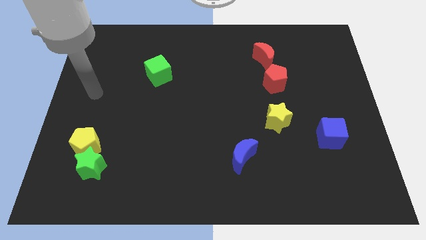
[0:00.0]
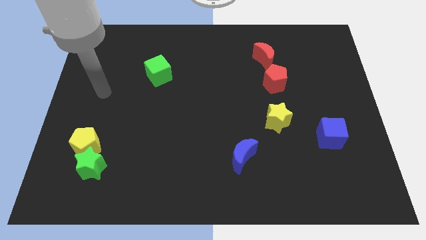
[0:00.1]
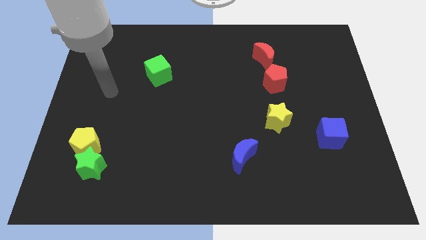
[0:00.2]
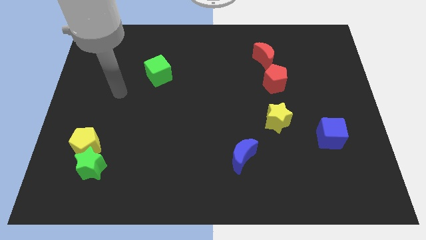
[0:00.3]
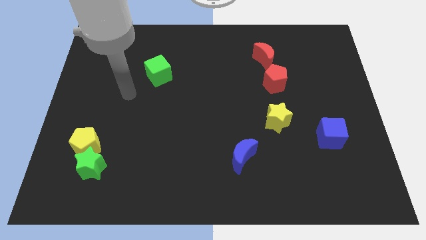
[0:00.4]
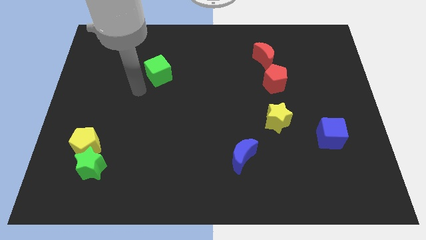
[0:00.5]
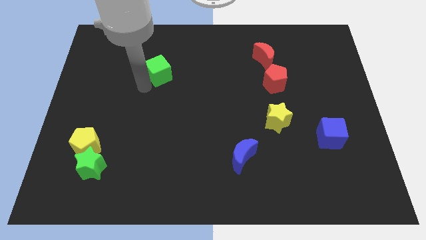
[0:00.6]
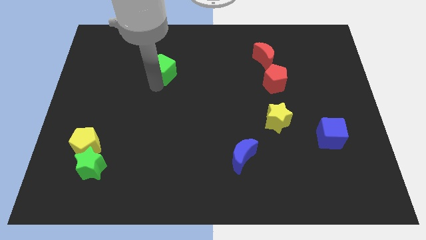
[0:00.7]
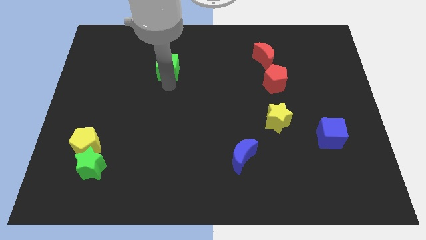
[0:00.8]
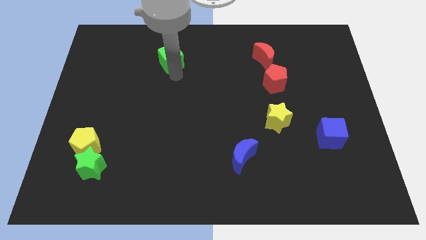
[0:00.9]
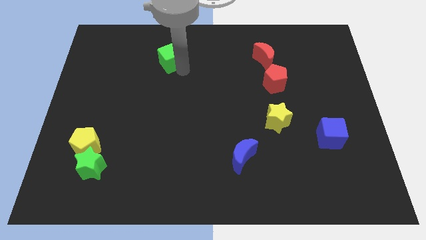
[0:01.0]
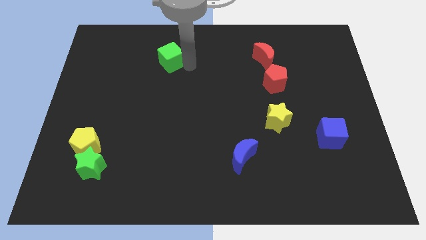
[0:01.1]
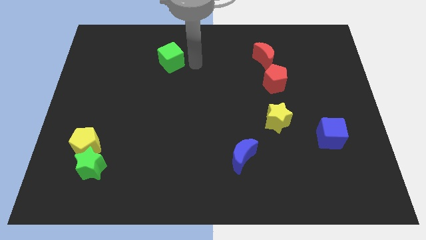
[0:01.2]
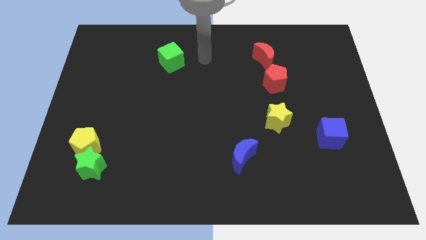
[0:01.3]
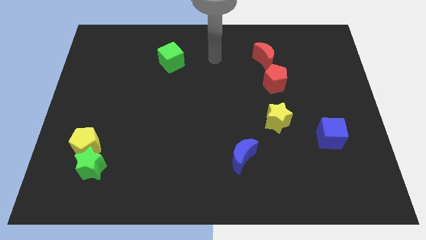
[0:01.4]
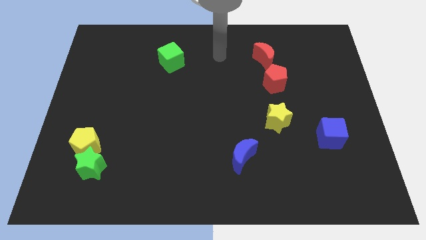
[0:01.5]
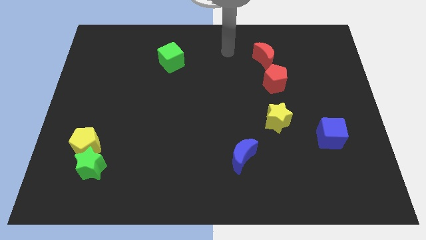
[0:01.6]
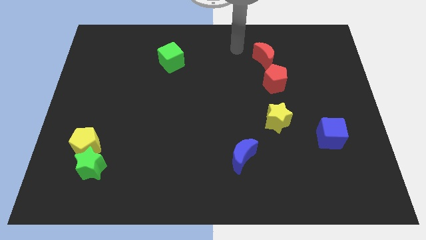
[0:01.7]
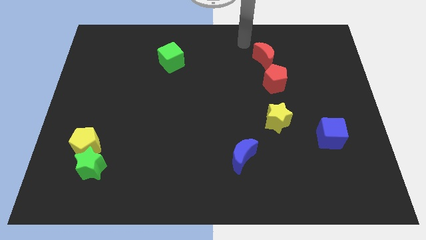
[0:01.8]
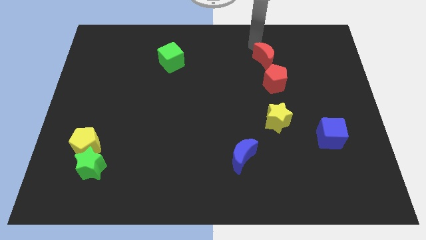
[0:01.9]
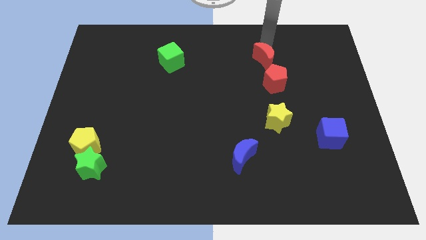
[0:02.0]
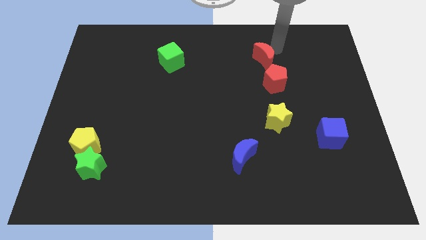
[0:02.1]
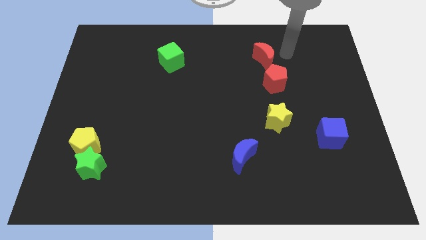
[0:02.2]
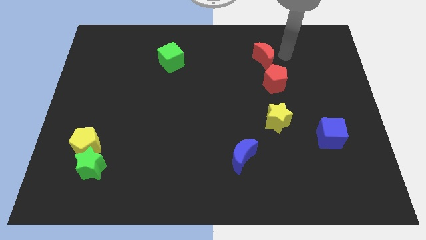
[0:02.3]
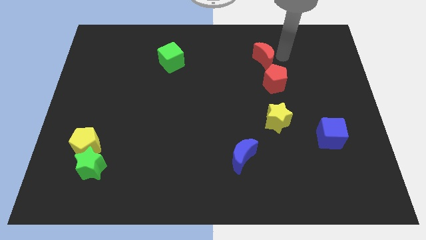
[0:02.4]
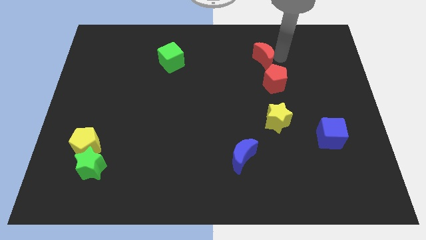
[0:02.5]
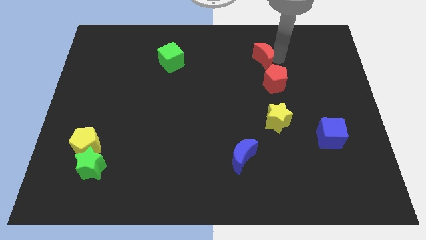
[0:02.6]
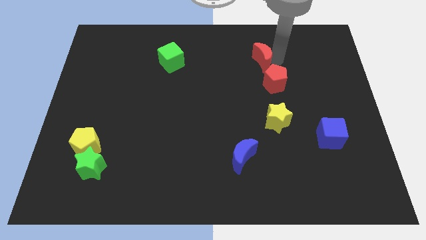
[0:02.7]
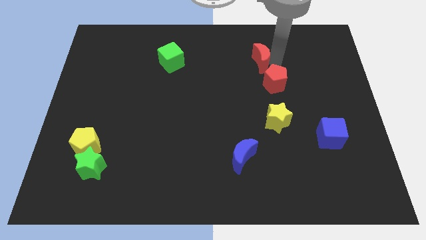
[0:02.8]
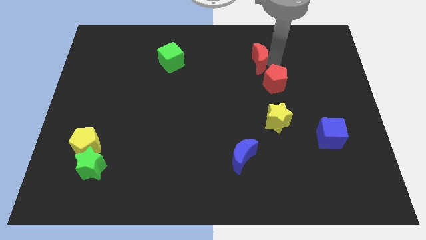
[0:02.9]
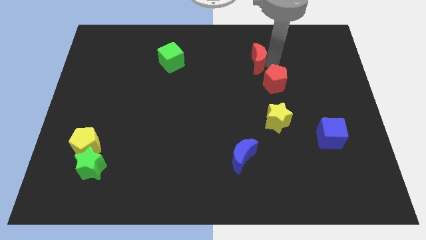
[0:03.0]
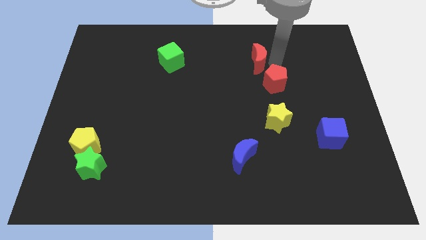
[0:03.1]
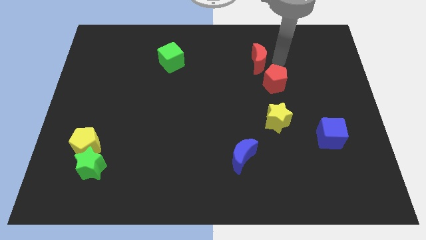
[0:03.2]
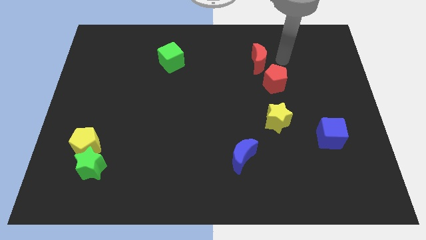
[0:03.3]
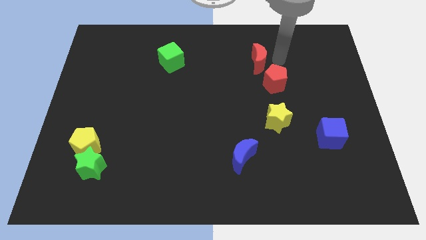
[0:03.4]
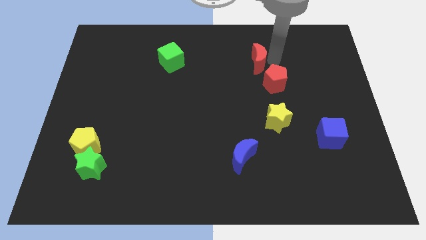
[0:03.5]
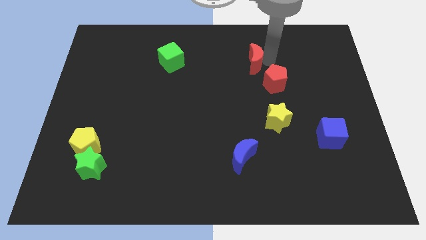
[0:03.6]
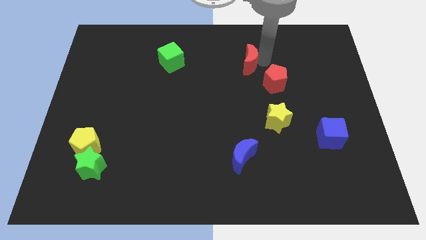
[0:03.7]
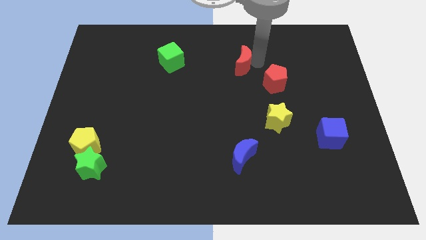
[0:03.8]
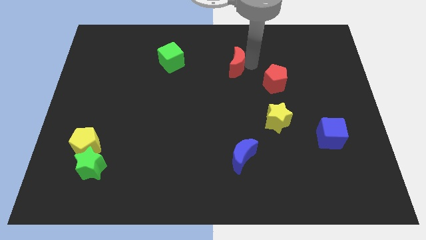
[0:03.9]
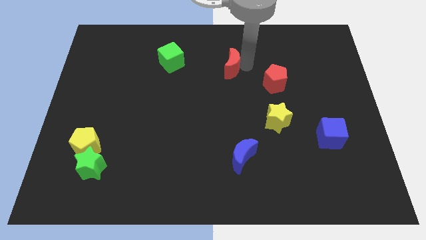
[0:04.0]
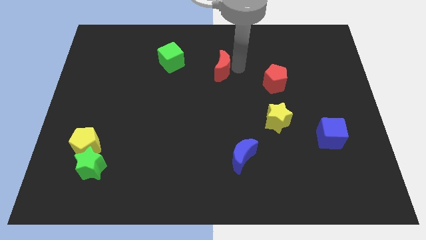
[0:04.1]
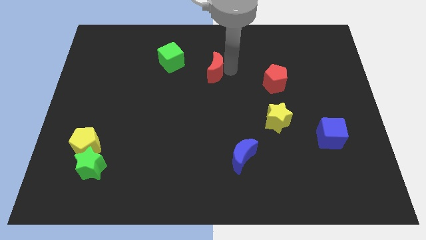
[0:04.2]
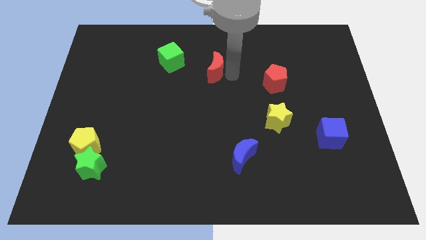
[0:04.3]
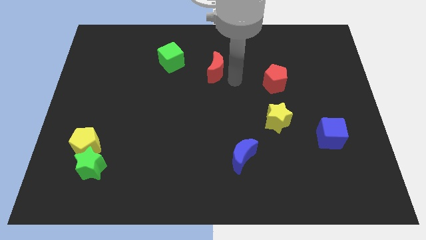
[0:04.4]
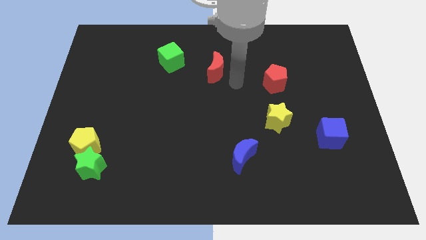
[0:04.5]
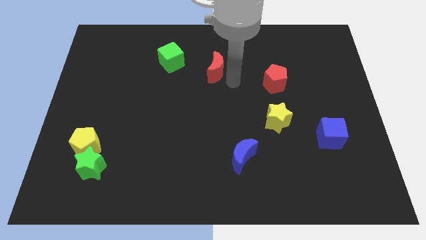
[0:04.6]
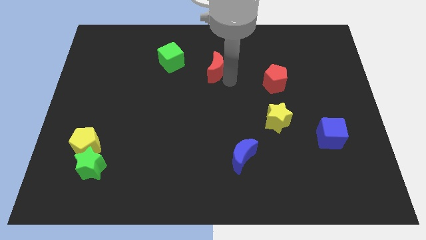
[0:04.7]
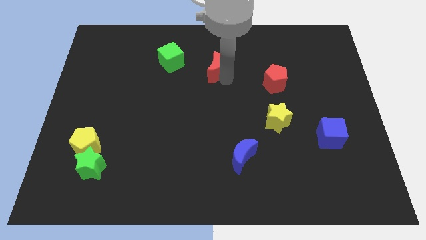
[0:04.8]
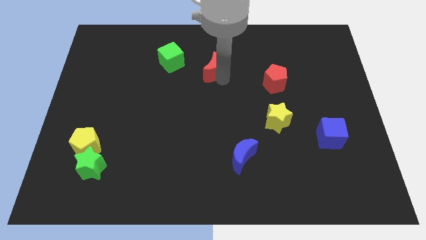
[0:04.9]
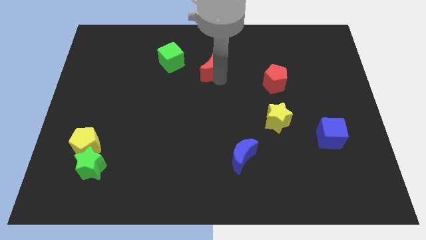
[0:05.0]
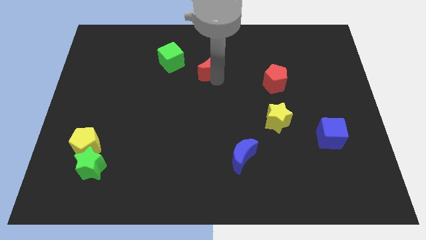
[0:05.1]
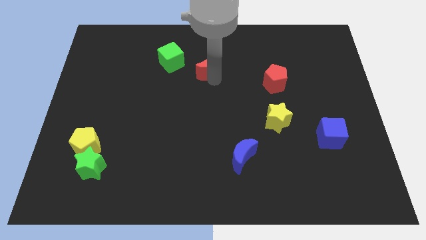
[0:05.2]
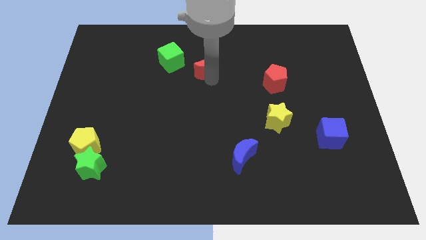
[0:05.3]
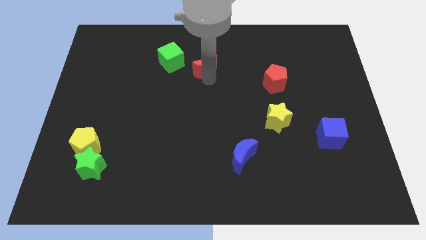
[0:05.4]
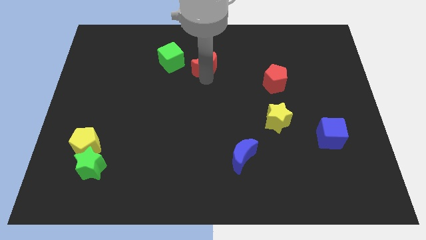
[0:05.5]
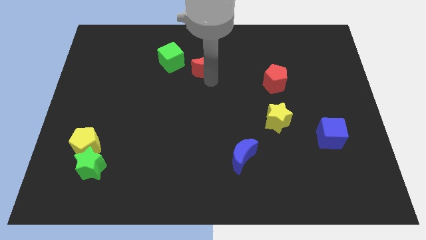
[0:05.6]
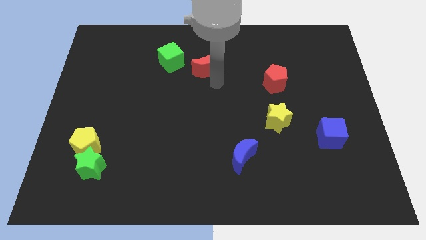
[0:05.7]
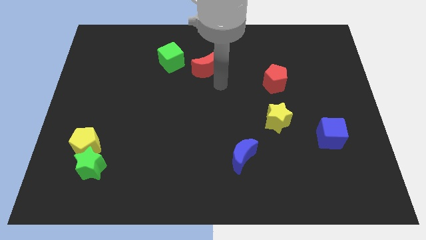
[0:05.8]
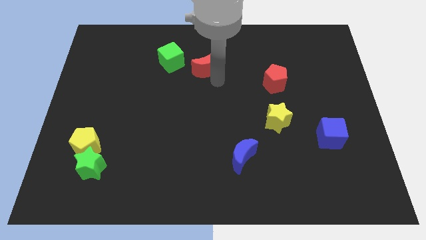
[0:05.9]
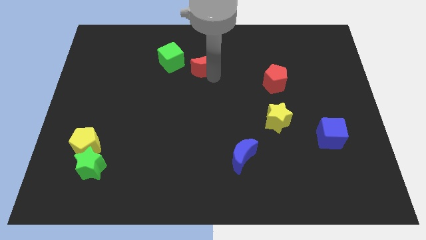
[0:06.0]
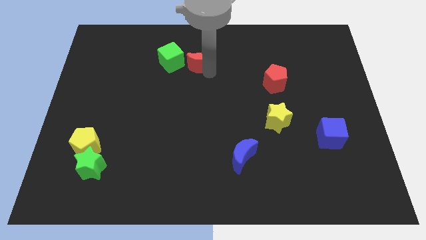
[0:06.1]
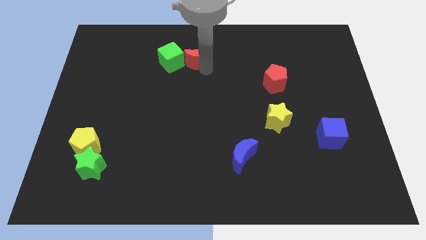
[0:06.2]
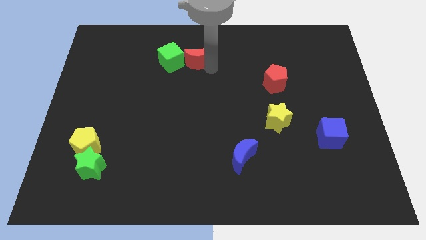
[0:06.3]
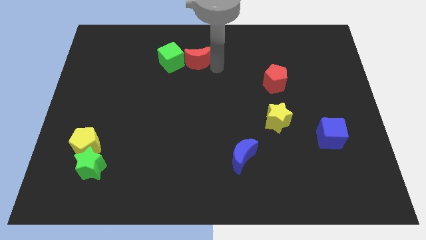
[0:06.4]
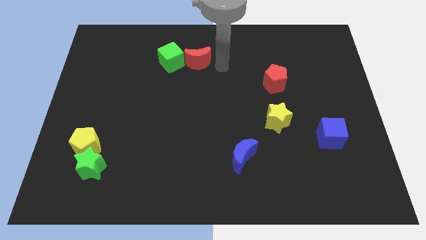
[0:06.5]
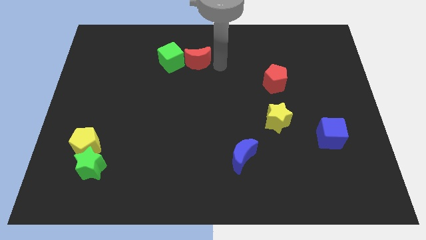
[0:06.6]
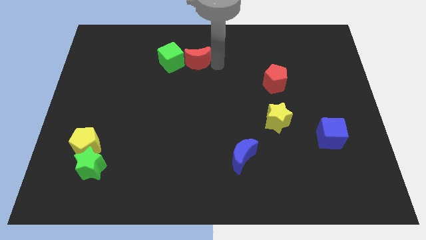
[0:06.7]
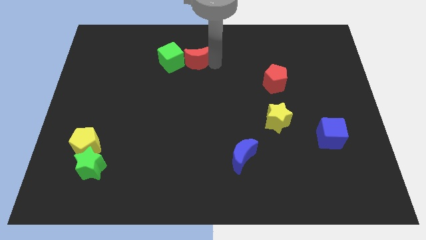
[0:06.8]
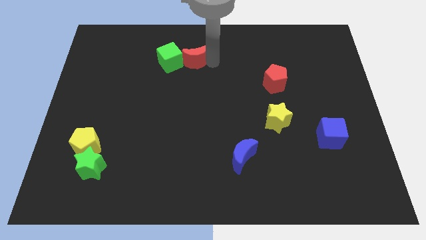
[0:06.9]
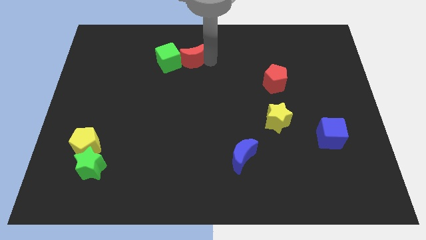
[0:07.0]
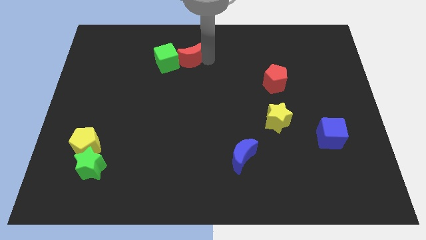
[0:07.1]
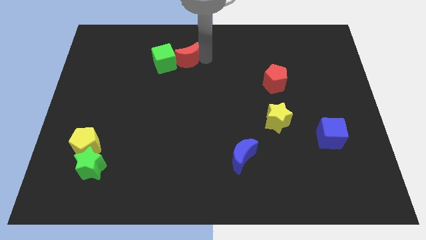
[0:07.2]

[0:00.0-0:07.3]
push the red moon to the left

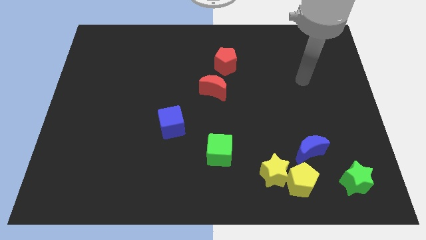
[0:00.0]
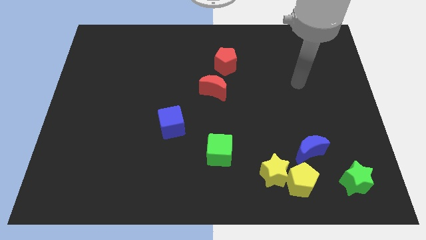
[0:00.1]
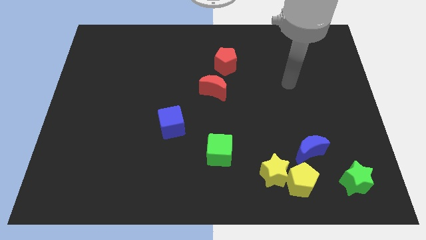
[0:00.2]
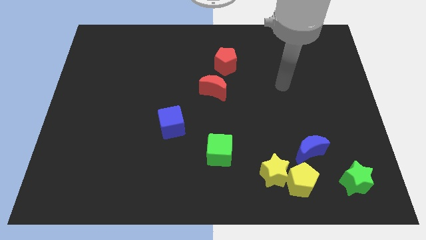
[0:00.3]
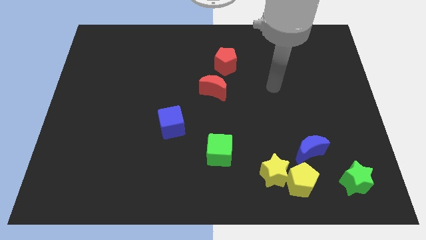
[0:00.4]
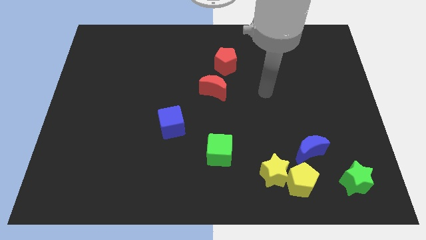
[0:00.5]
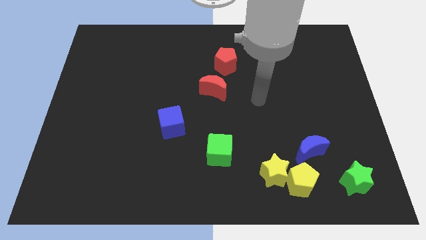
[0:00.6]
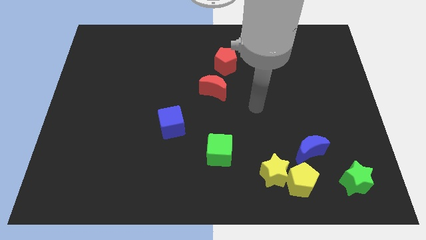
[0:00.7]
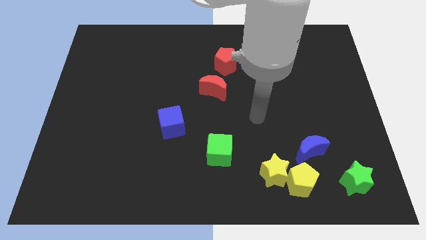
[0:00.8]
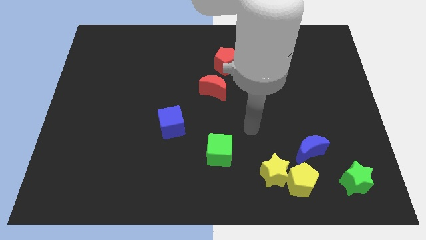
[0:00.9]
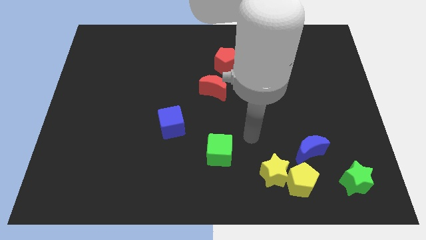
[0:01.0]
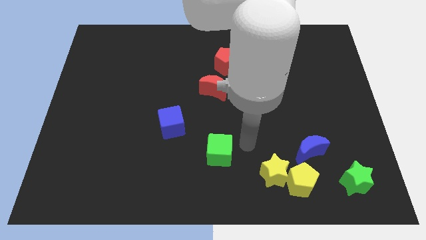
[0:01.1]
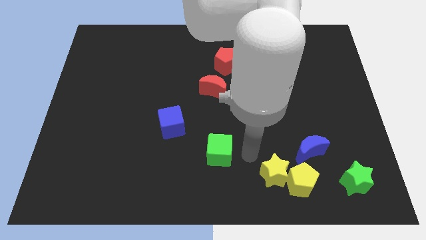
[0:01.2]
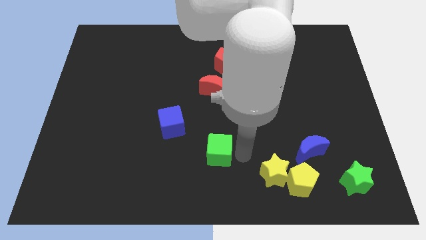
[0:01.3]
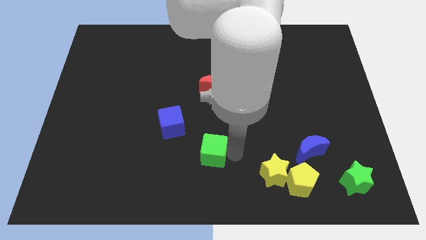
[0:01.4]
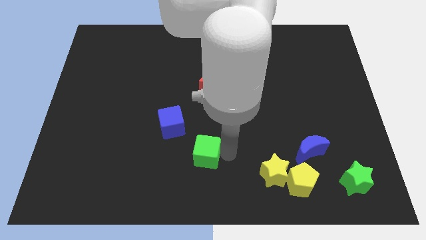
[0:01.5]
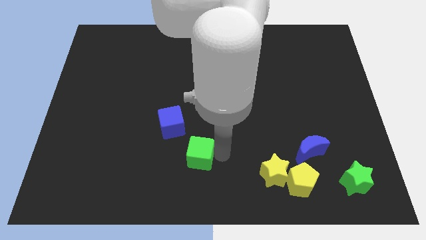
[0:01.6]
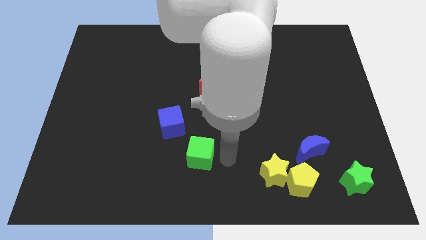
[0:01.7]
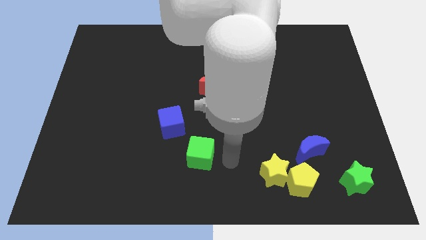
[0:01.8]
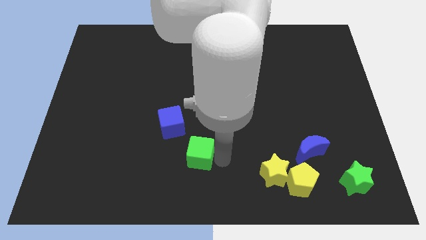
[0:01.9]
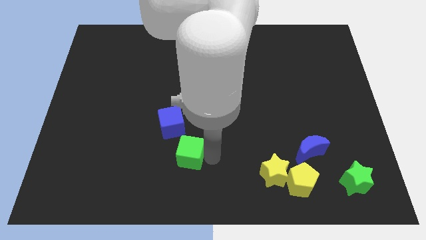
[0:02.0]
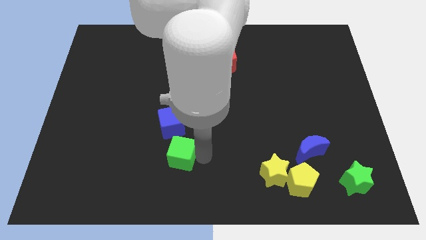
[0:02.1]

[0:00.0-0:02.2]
move the green cube to the left a little bit
